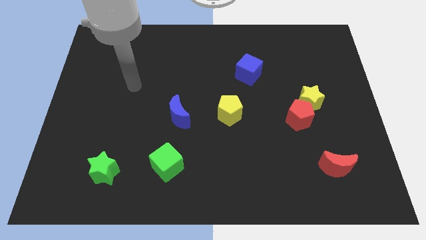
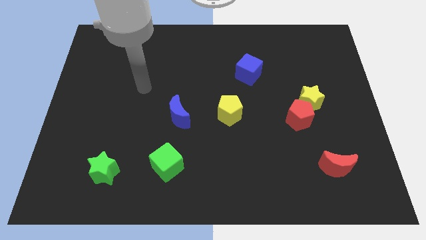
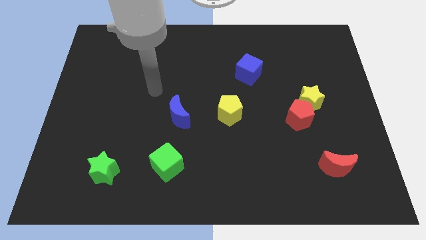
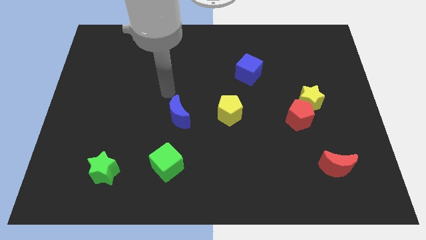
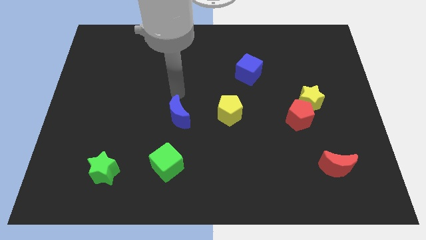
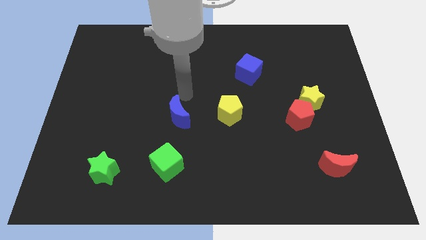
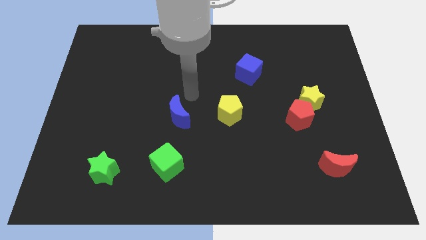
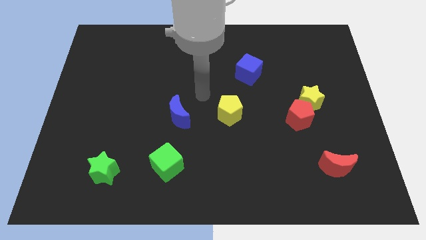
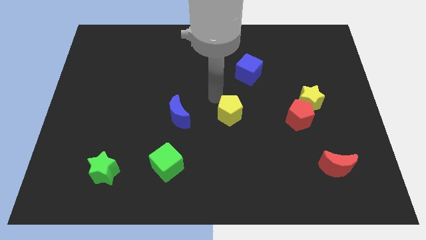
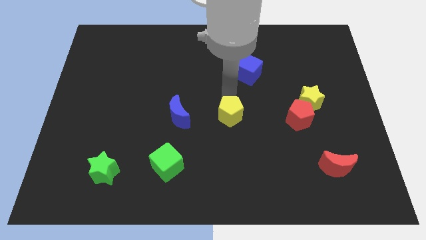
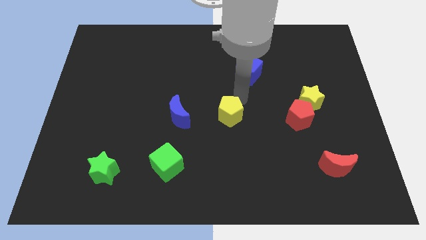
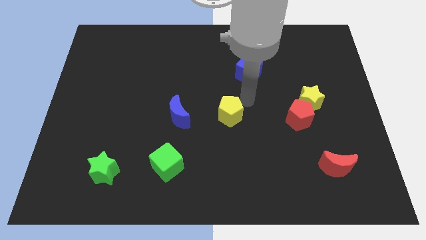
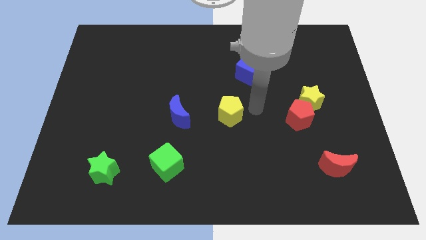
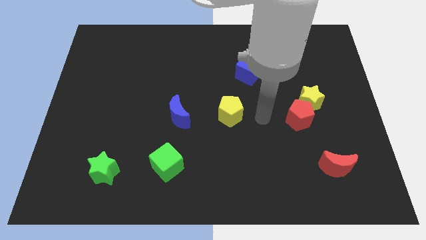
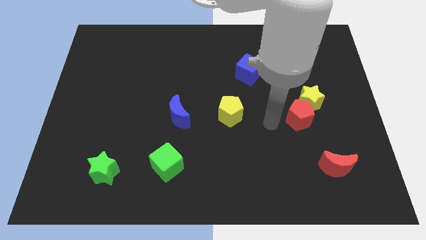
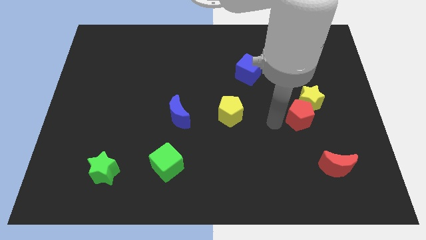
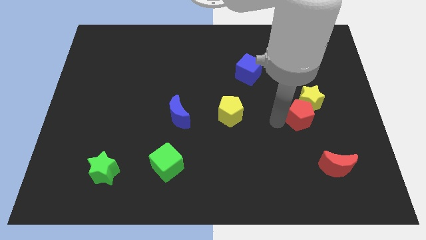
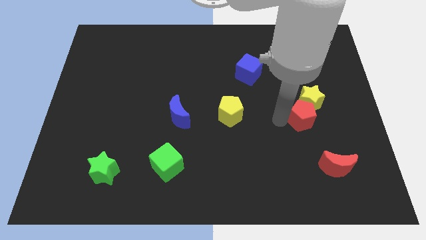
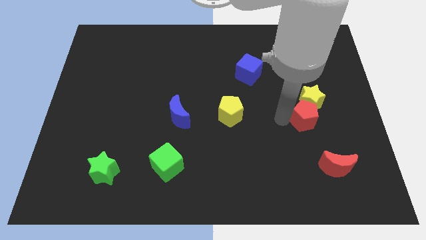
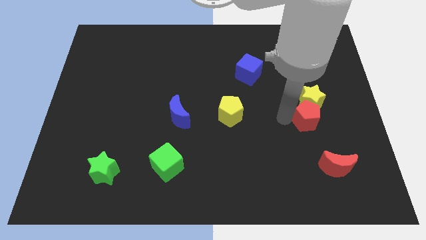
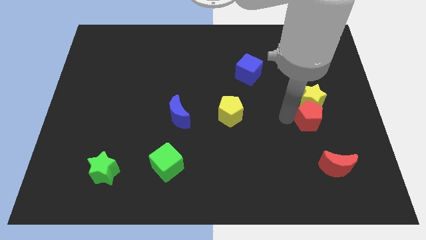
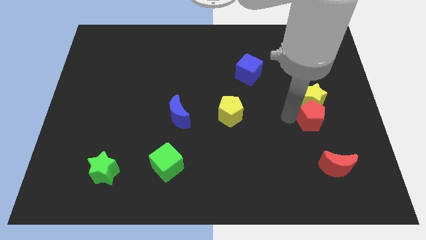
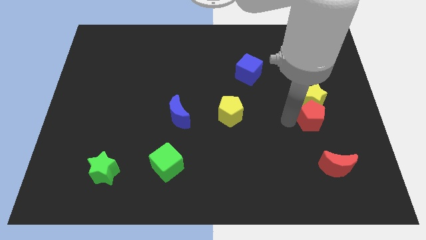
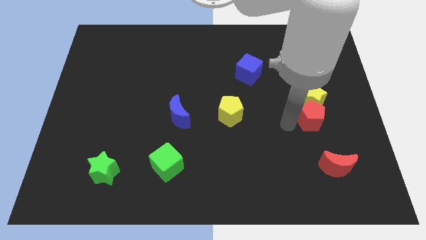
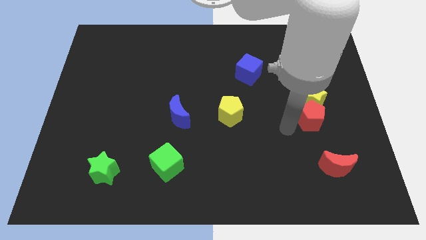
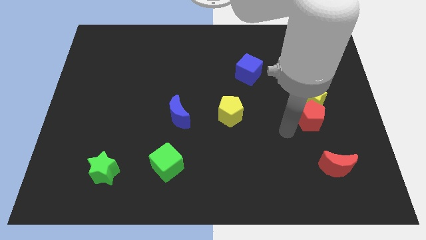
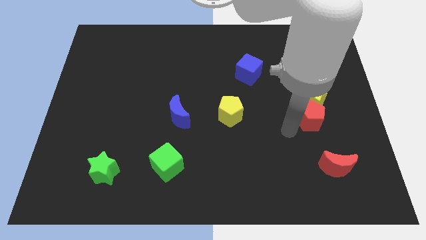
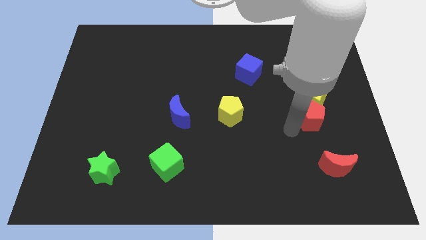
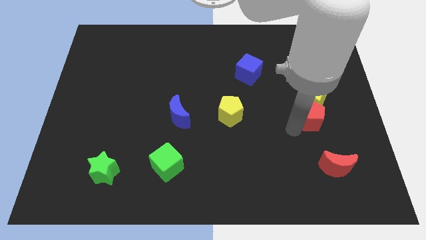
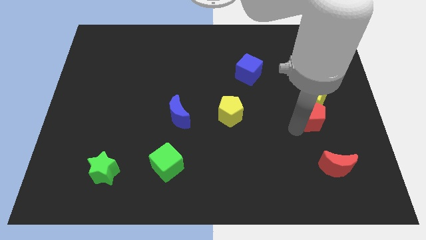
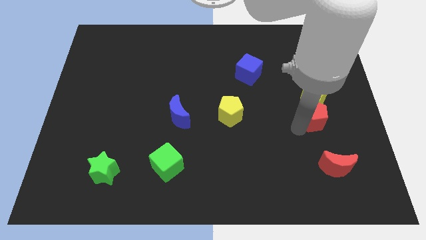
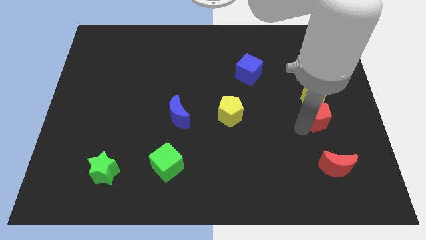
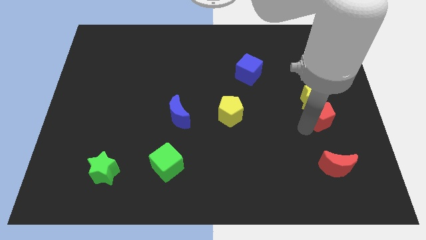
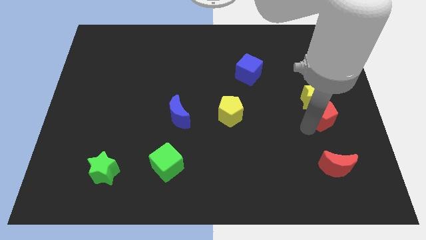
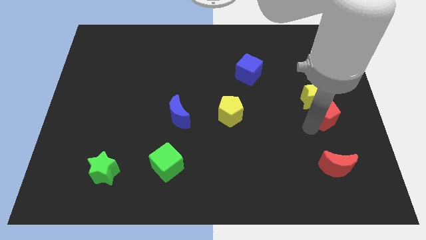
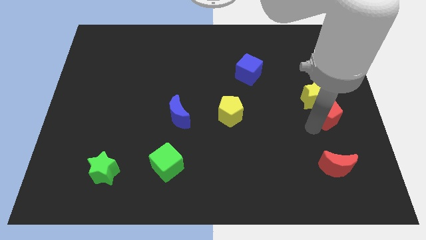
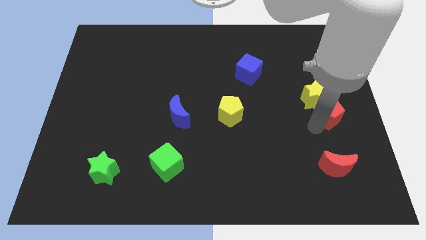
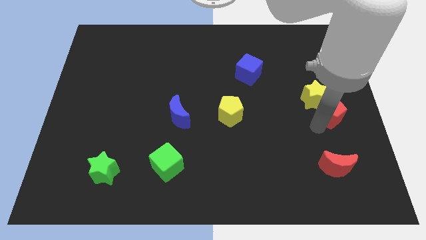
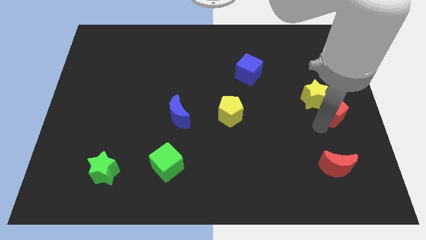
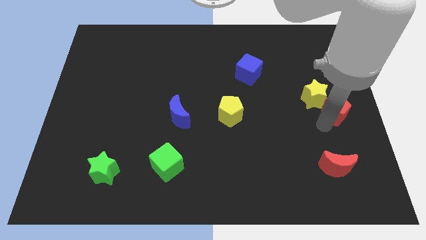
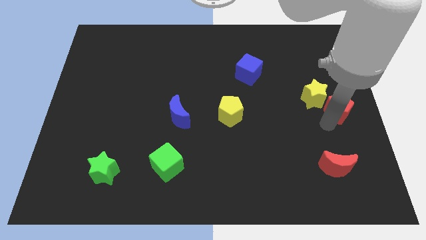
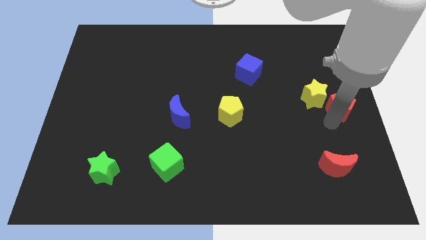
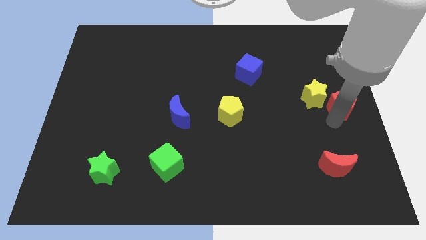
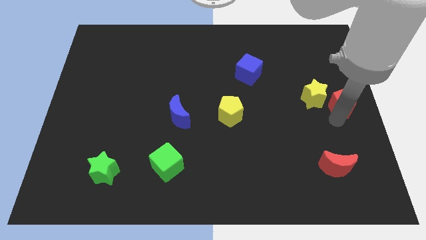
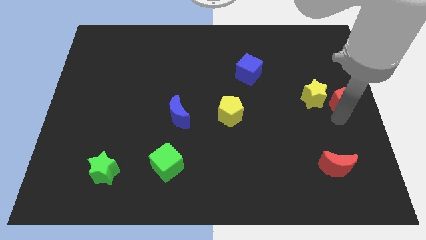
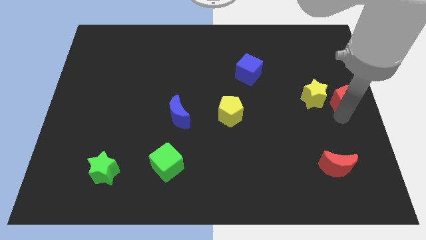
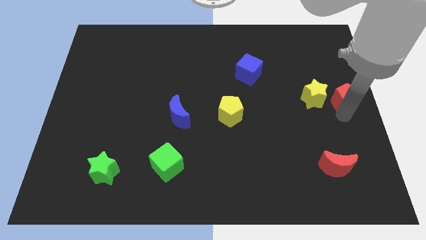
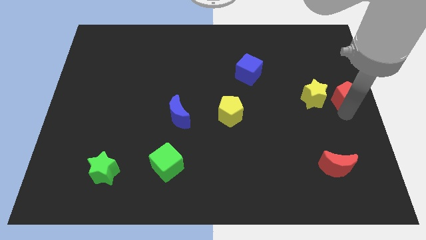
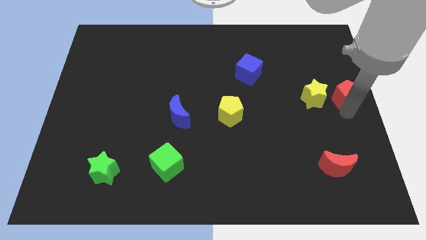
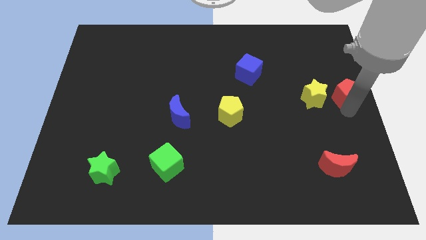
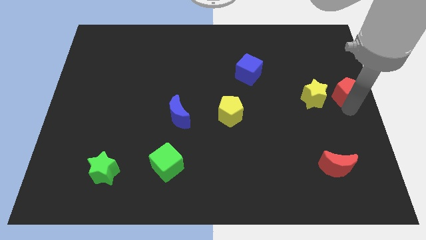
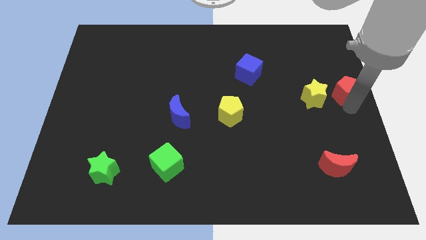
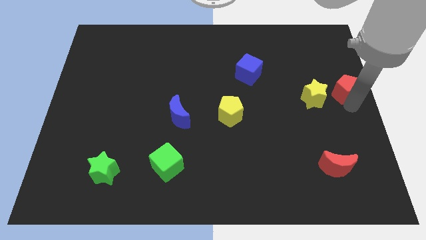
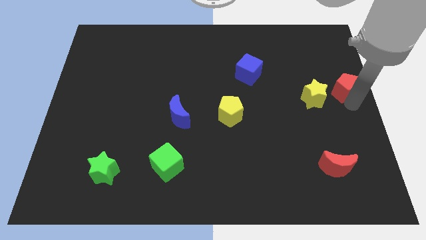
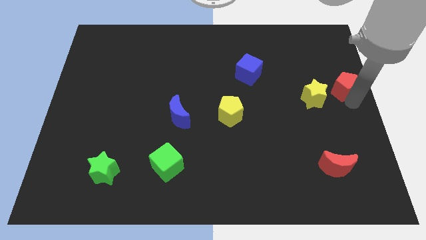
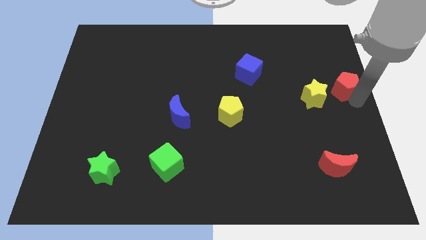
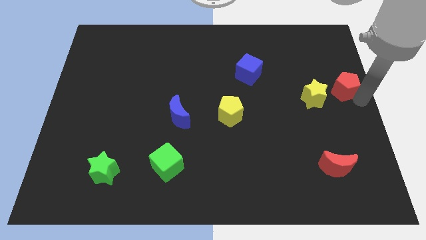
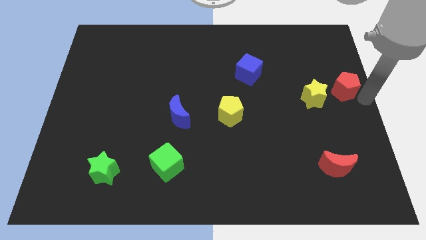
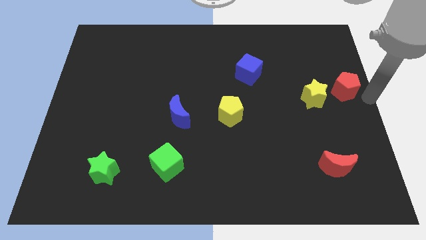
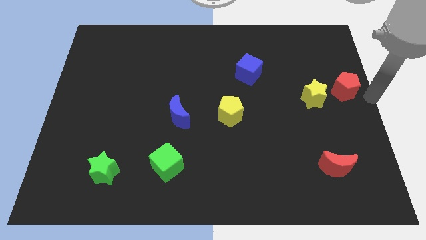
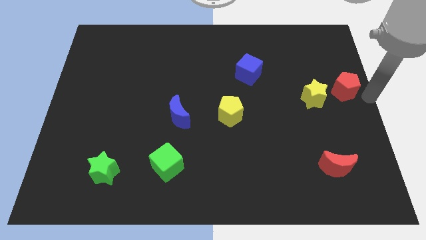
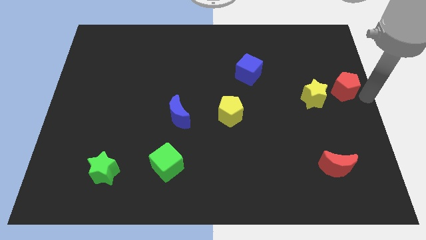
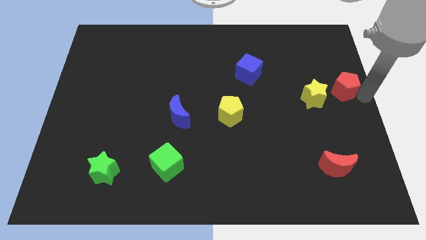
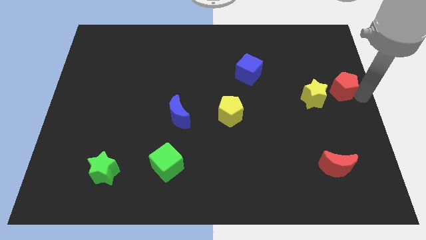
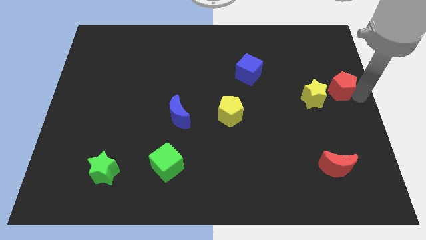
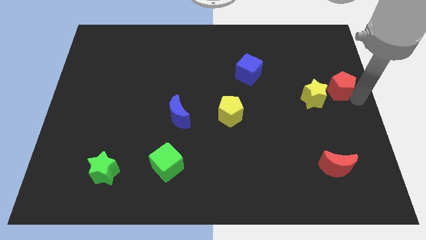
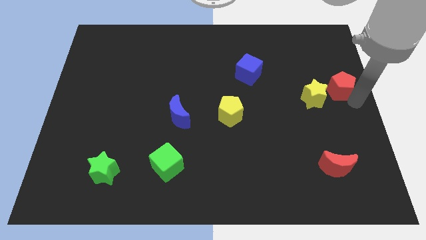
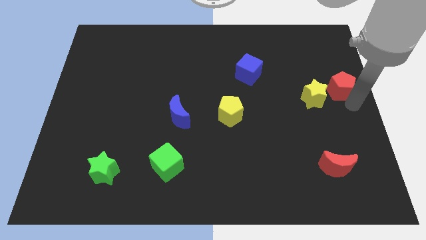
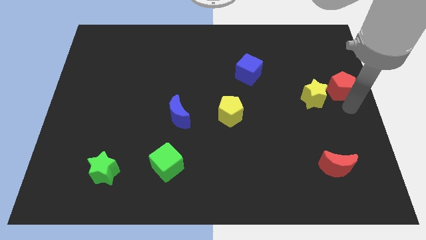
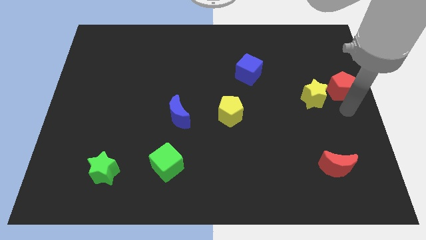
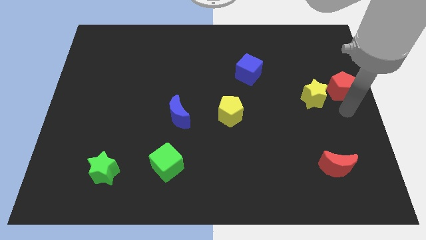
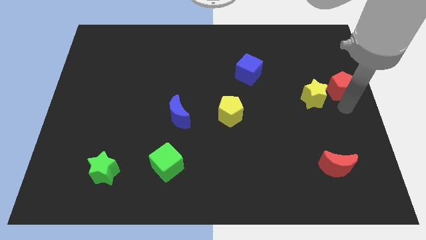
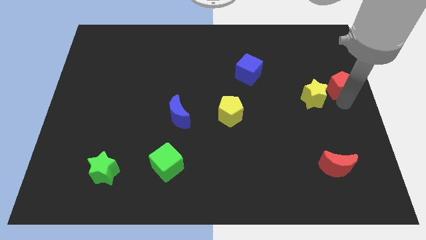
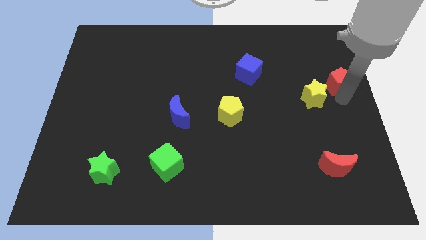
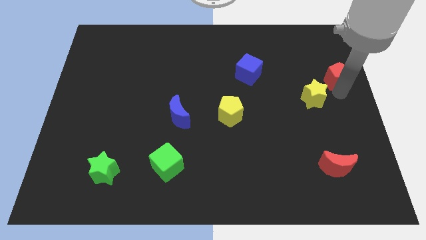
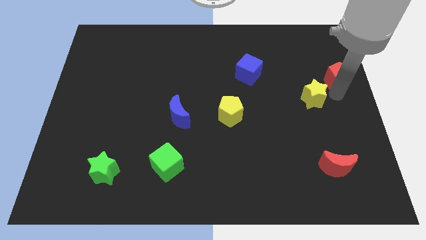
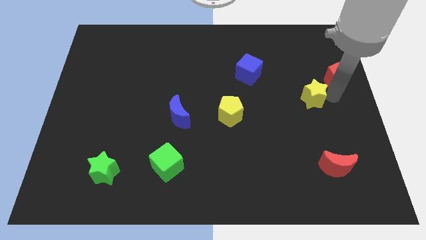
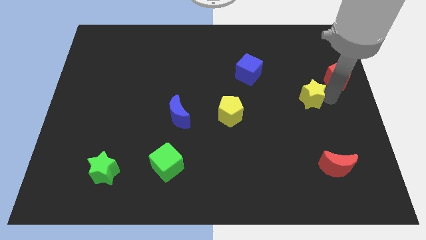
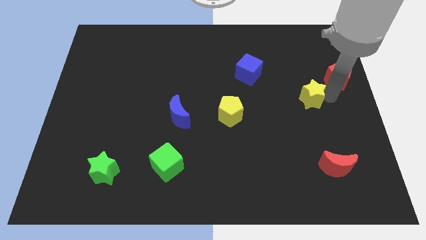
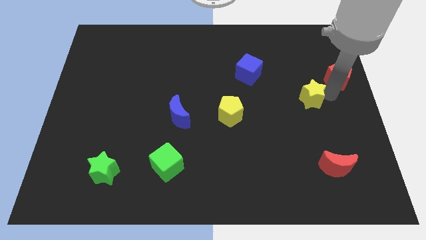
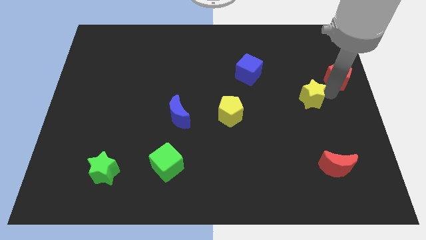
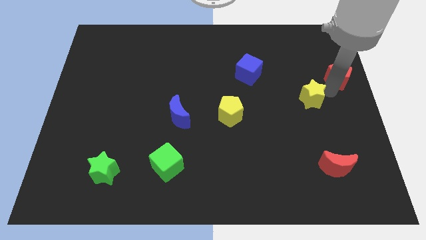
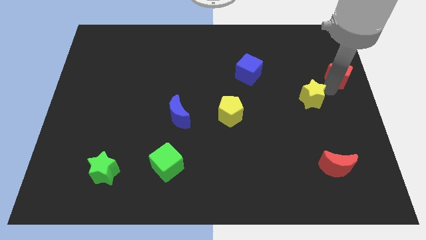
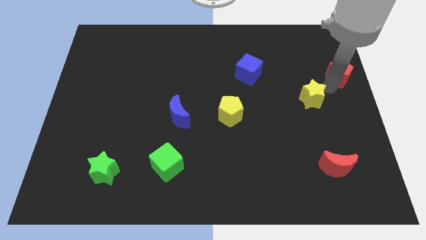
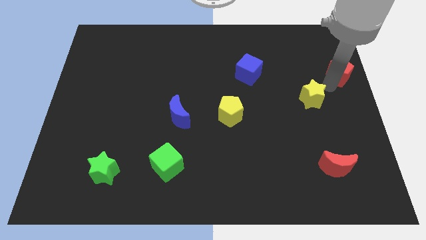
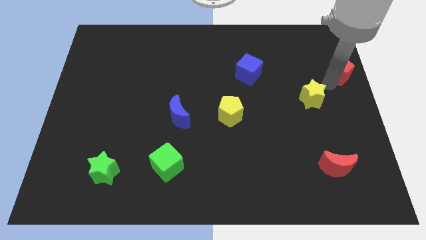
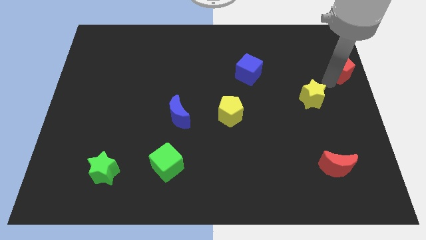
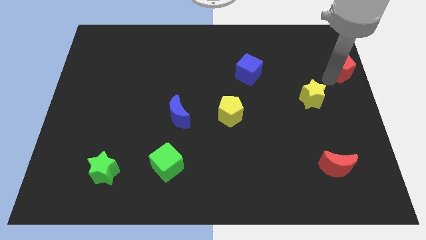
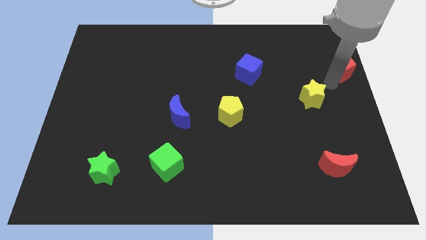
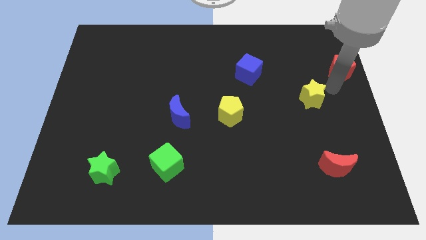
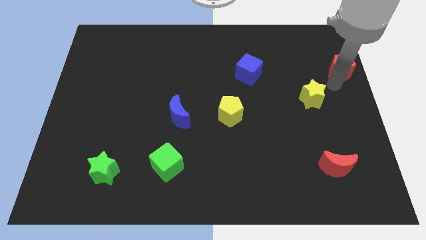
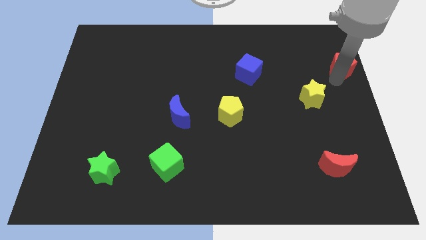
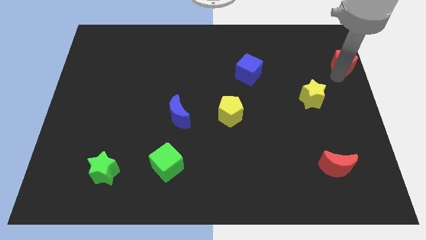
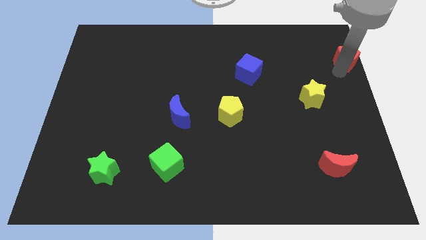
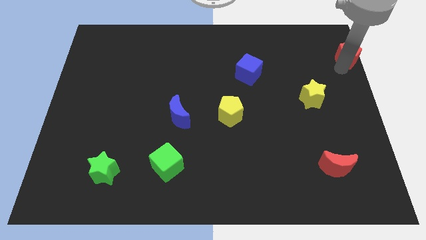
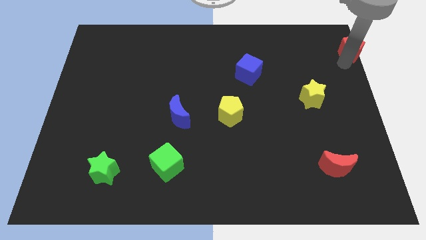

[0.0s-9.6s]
slide the red pentagon to the top right of the board
